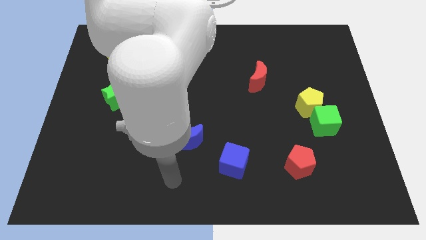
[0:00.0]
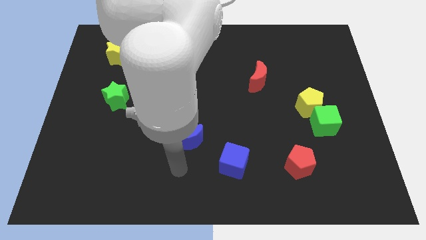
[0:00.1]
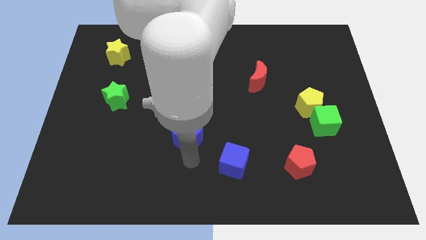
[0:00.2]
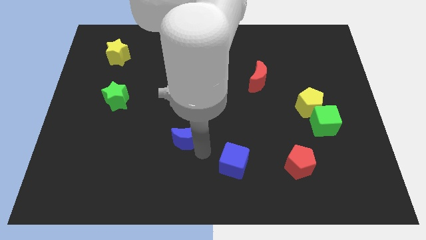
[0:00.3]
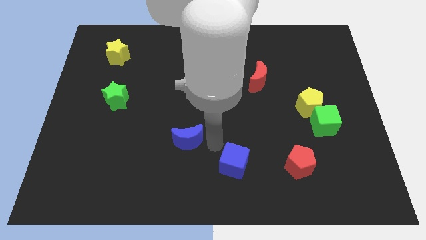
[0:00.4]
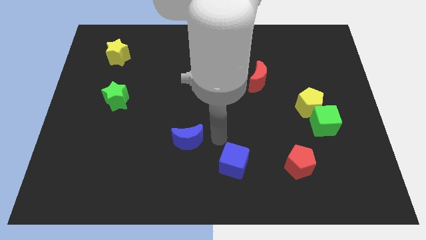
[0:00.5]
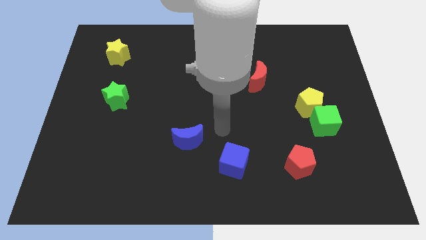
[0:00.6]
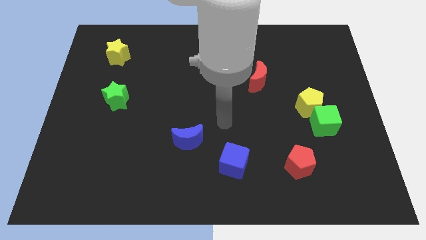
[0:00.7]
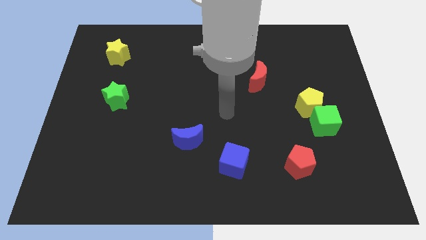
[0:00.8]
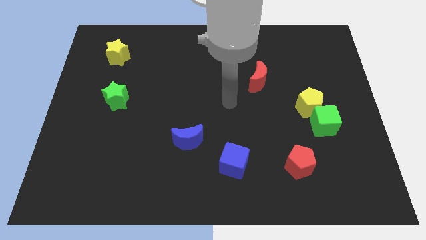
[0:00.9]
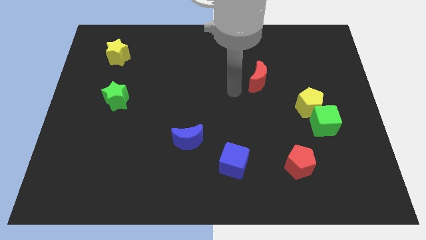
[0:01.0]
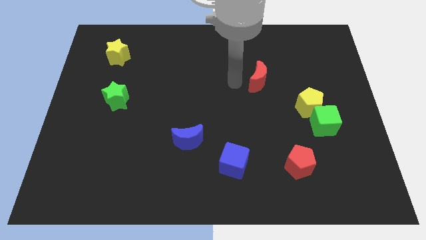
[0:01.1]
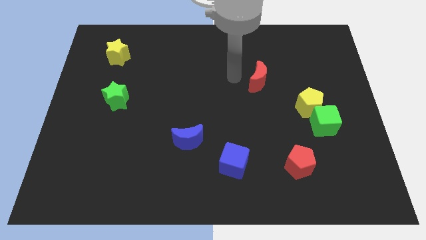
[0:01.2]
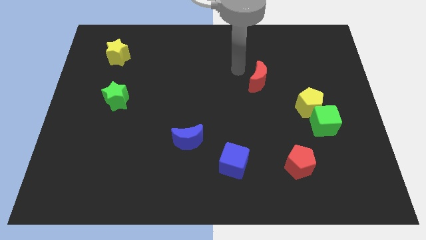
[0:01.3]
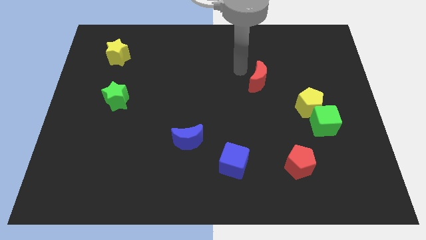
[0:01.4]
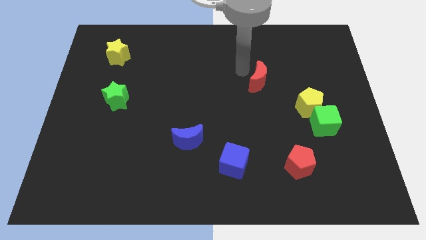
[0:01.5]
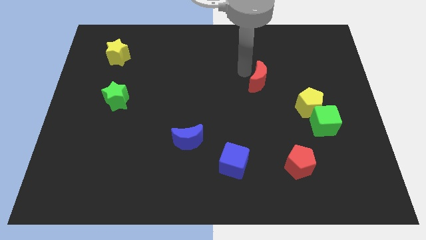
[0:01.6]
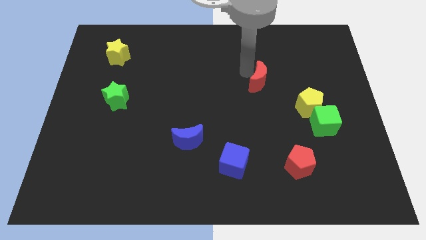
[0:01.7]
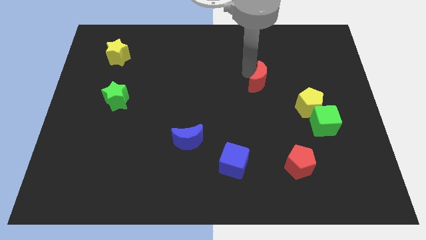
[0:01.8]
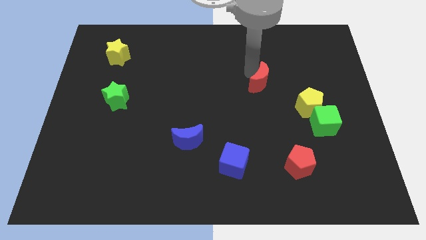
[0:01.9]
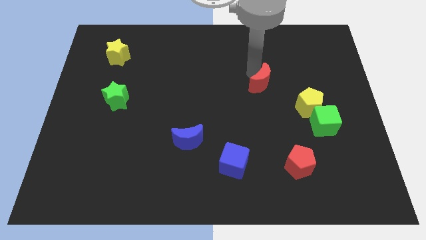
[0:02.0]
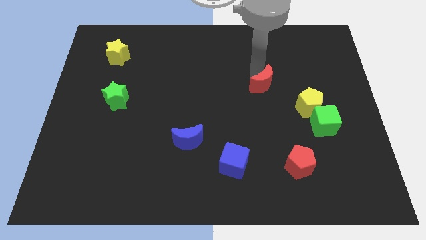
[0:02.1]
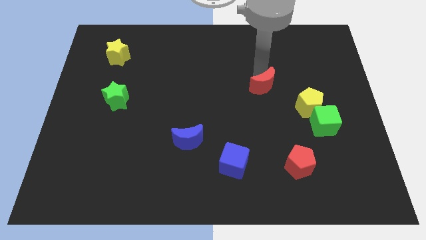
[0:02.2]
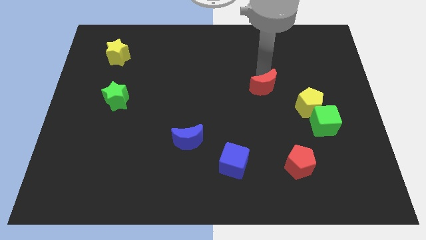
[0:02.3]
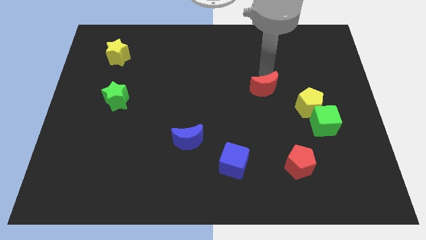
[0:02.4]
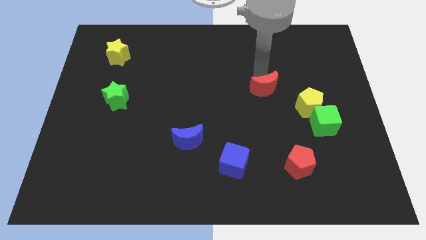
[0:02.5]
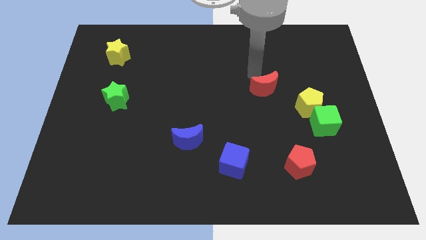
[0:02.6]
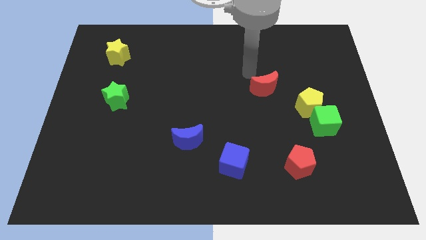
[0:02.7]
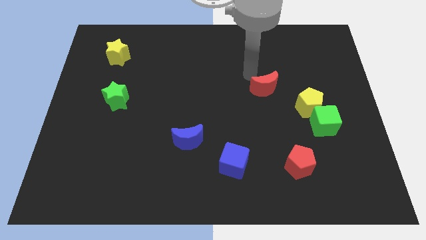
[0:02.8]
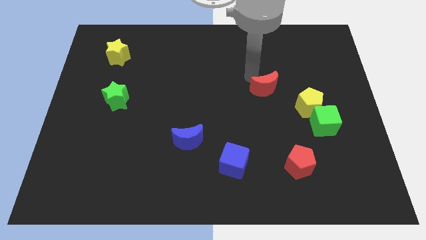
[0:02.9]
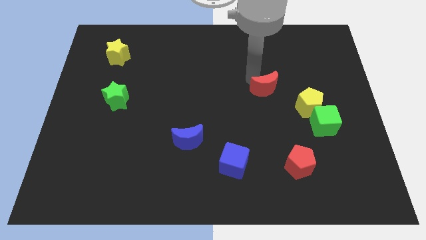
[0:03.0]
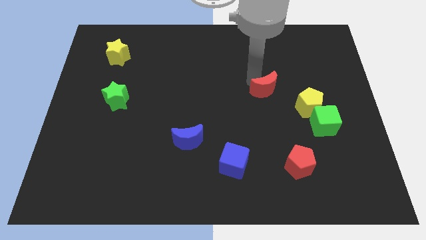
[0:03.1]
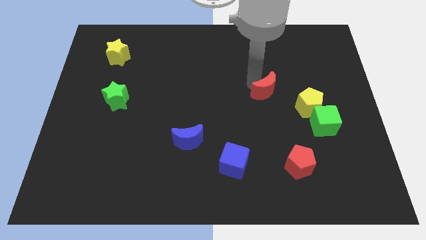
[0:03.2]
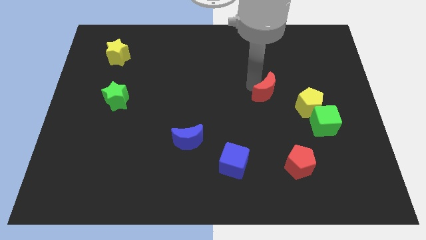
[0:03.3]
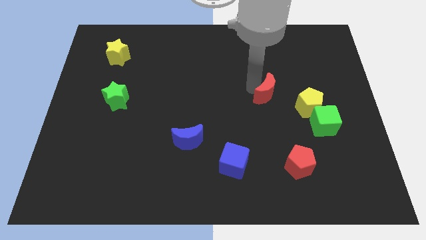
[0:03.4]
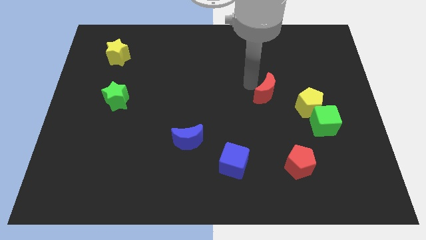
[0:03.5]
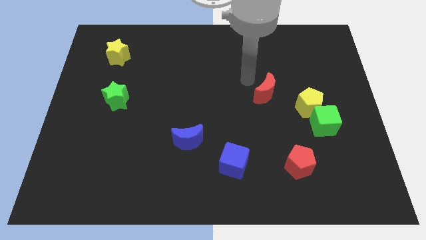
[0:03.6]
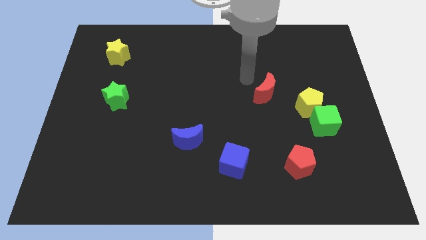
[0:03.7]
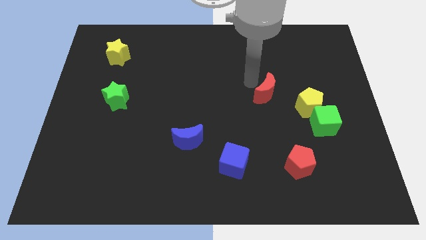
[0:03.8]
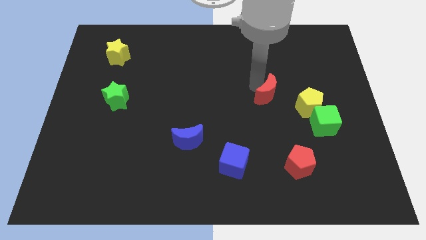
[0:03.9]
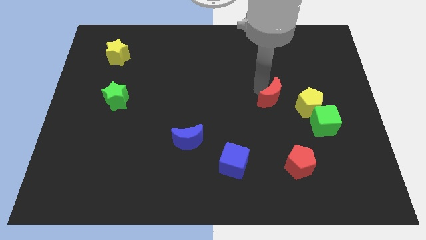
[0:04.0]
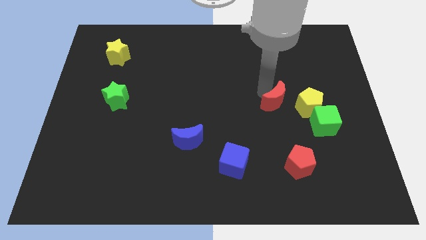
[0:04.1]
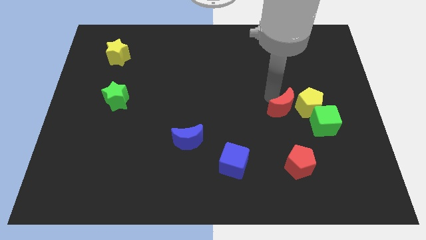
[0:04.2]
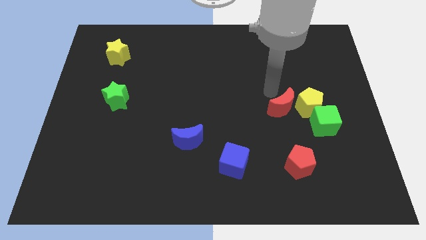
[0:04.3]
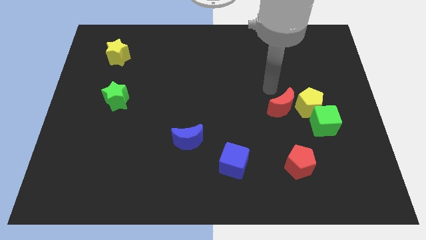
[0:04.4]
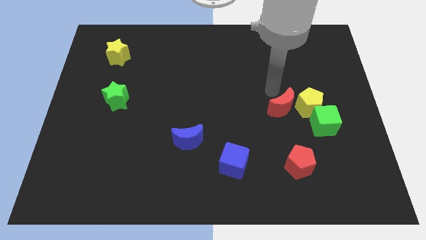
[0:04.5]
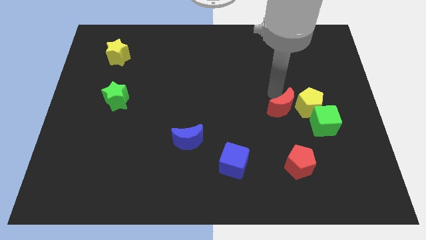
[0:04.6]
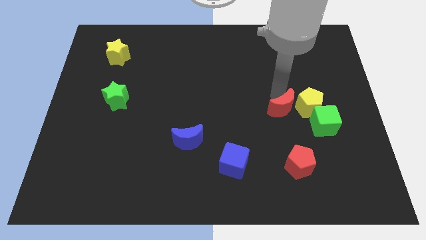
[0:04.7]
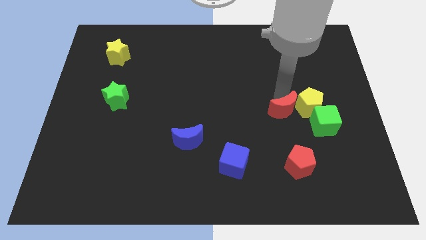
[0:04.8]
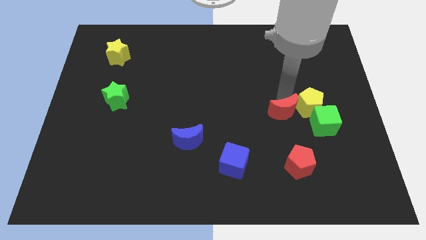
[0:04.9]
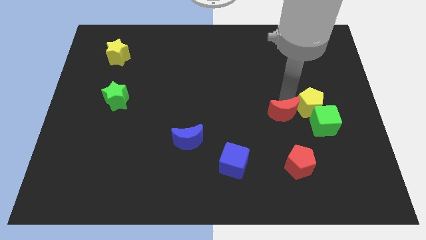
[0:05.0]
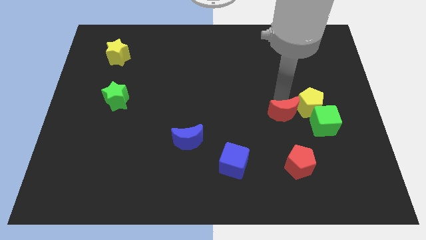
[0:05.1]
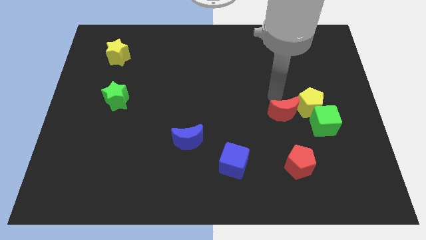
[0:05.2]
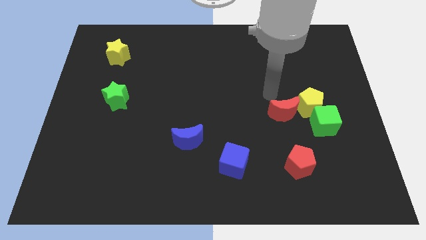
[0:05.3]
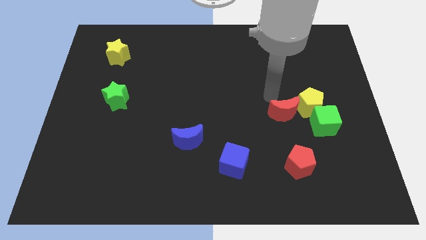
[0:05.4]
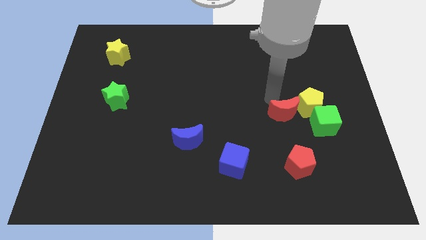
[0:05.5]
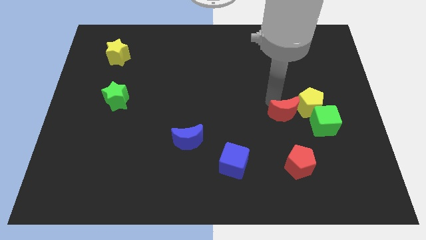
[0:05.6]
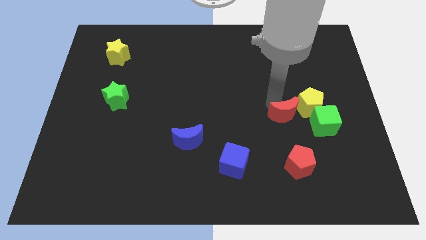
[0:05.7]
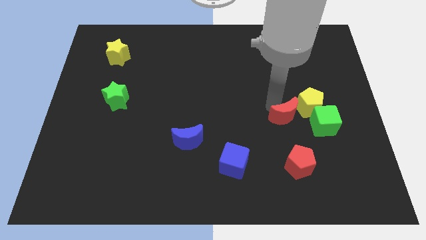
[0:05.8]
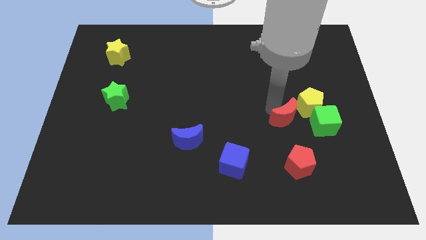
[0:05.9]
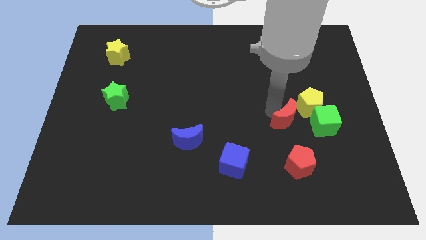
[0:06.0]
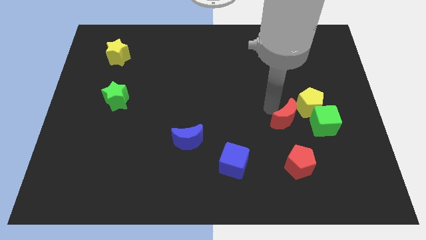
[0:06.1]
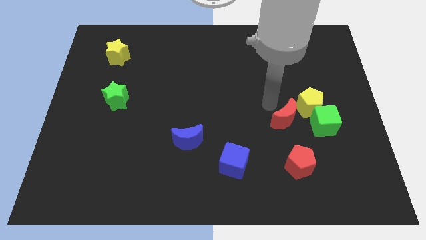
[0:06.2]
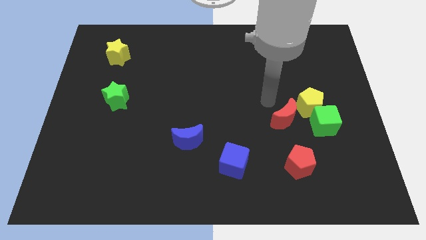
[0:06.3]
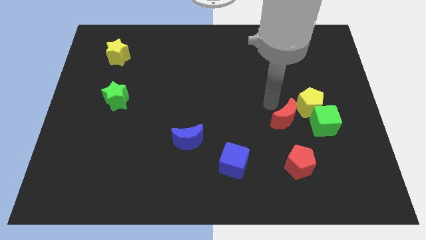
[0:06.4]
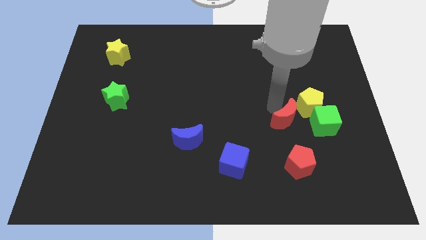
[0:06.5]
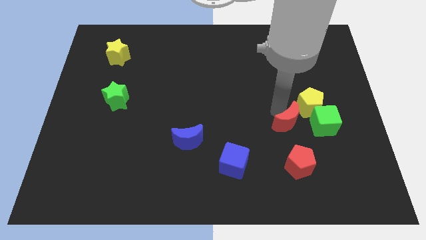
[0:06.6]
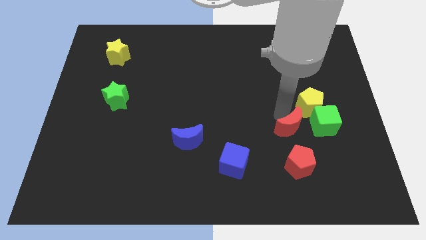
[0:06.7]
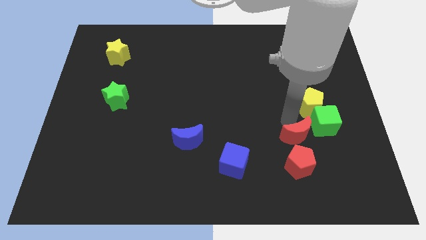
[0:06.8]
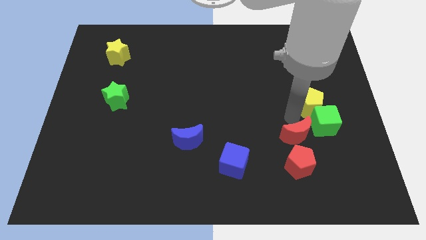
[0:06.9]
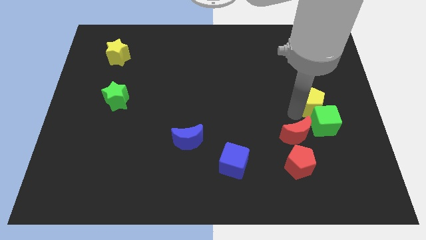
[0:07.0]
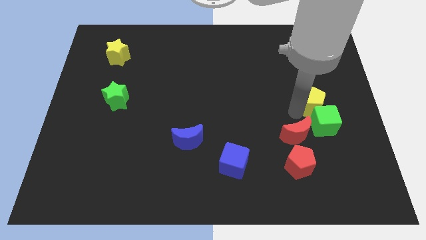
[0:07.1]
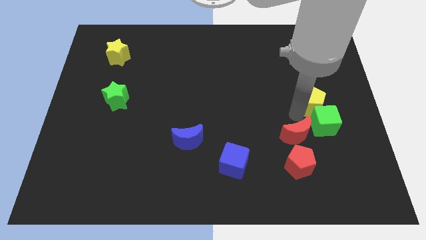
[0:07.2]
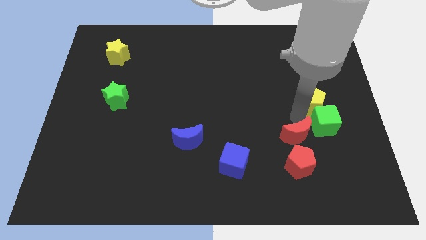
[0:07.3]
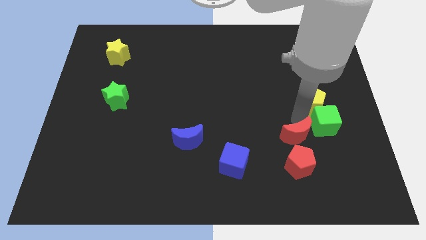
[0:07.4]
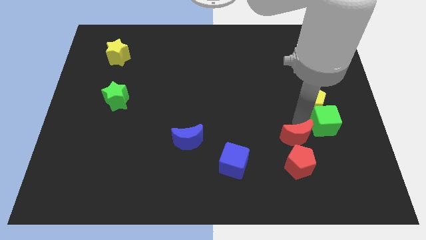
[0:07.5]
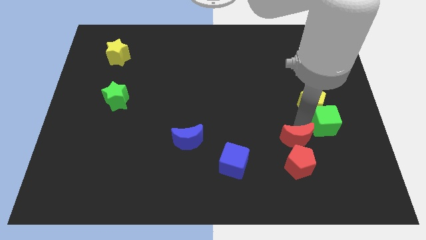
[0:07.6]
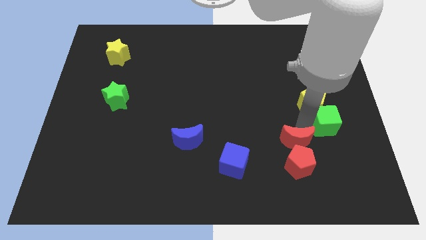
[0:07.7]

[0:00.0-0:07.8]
move the red moon to the red pentagon
